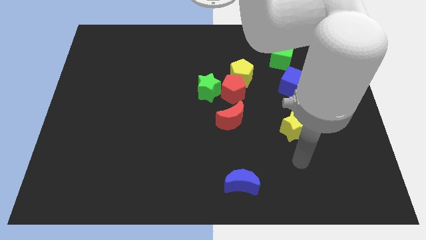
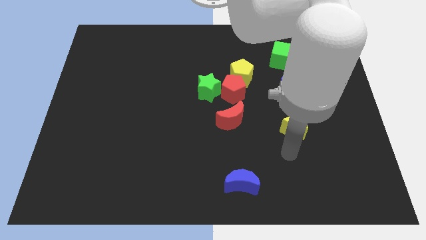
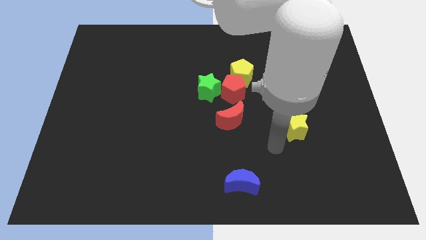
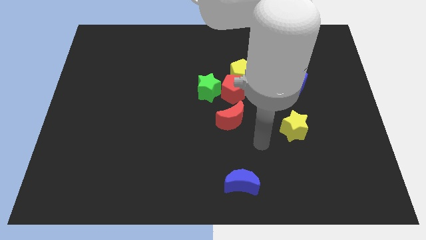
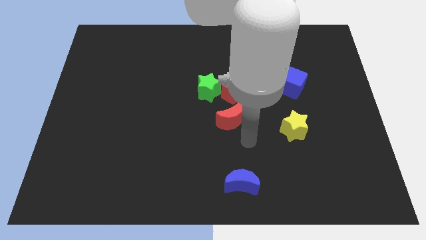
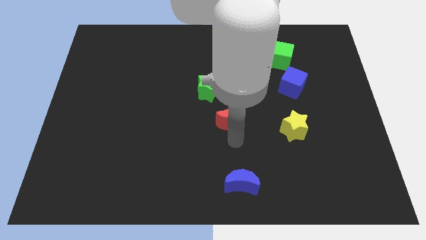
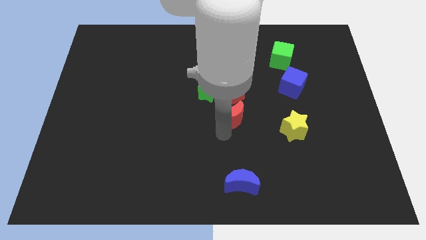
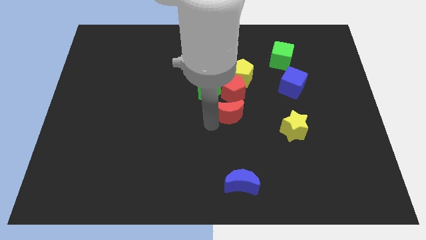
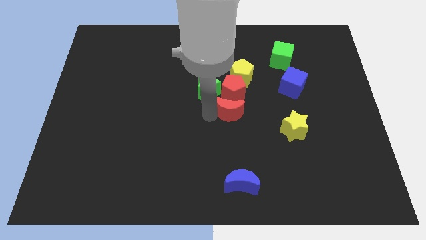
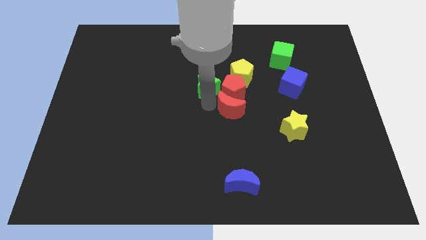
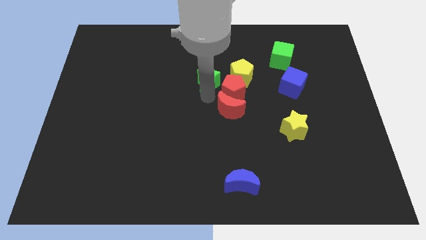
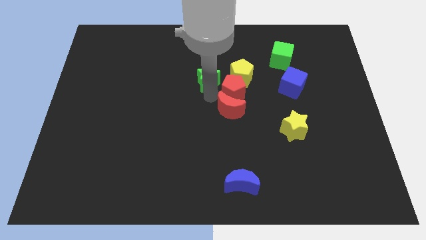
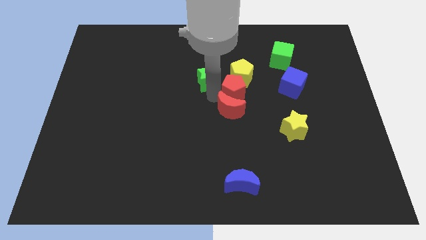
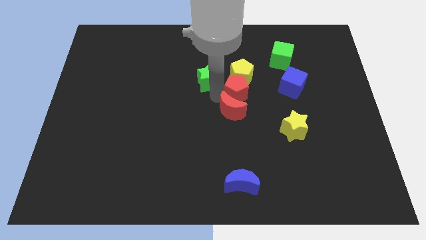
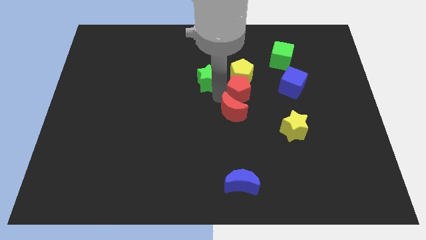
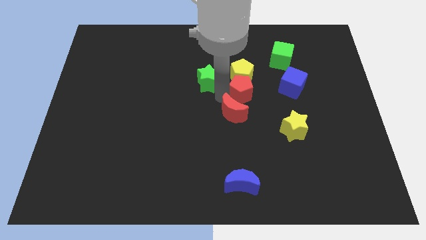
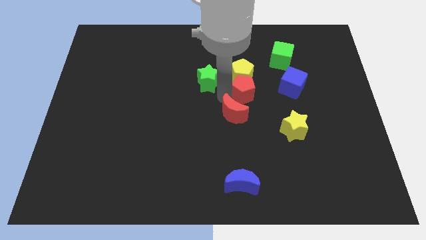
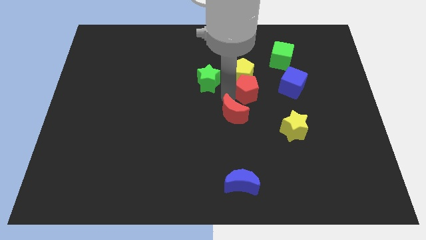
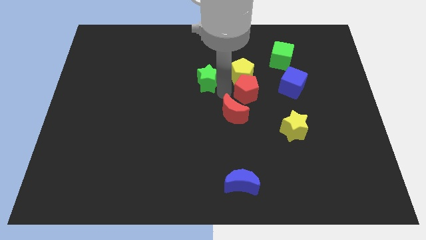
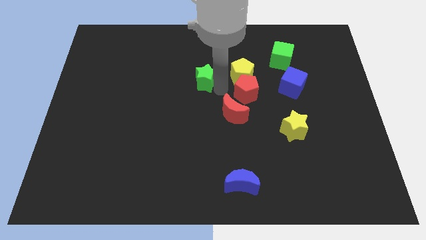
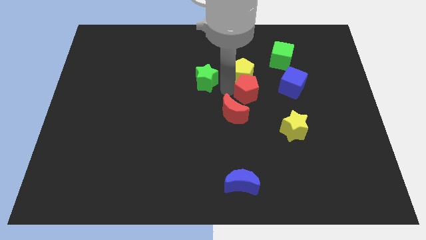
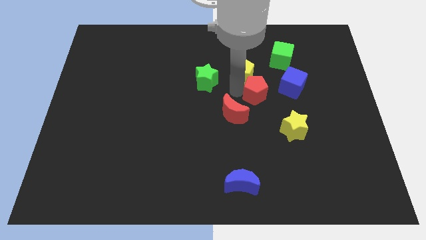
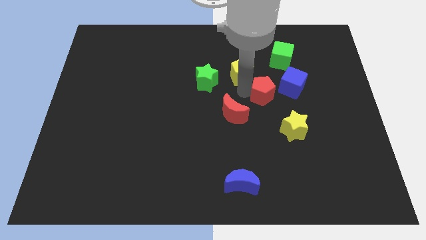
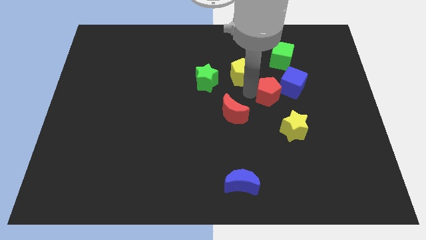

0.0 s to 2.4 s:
move the red pentagon away from the yellow pentagon, green star, and red moon

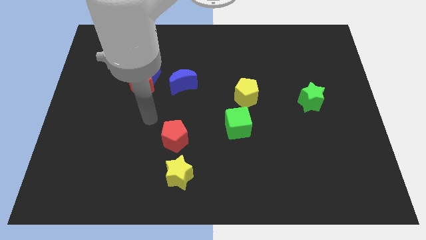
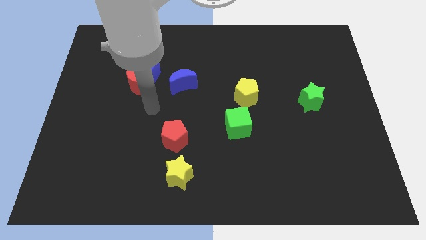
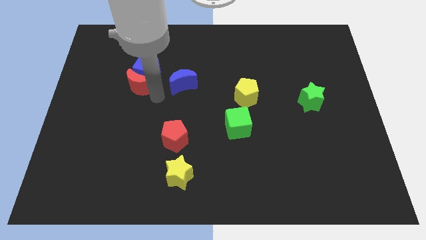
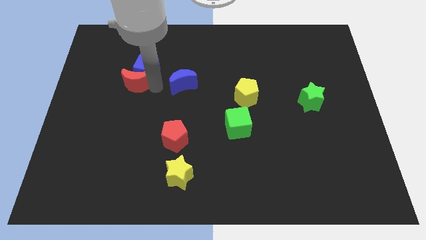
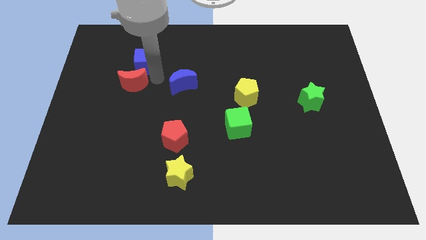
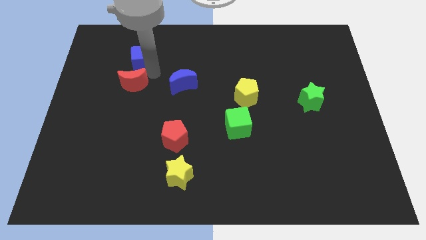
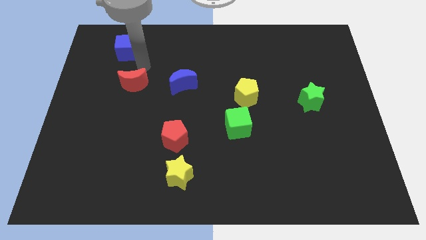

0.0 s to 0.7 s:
separate the red moon from the blue cube

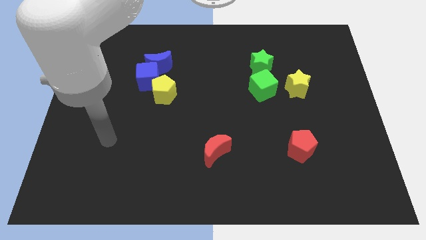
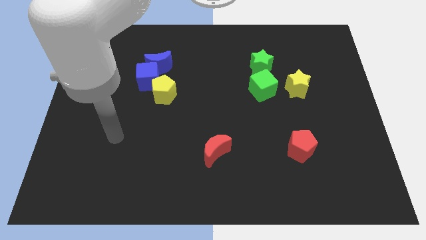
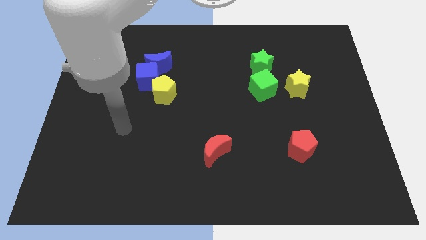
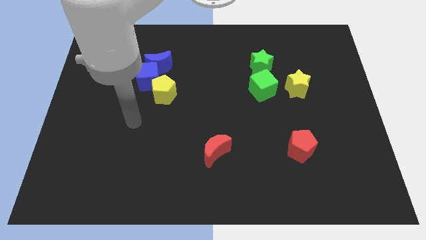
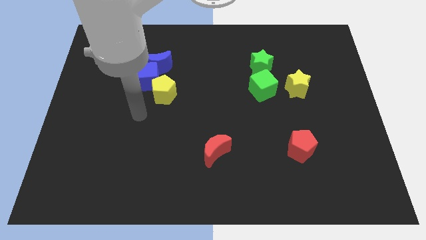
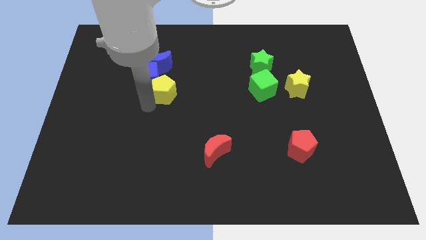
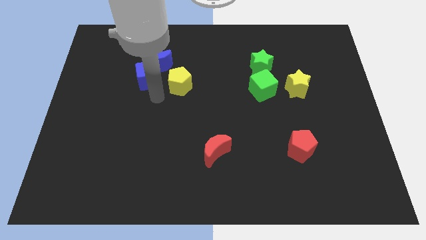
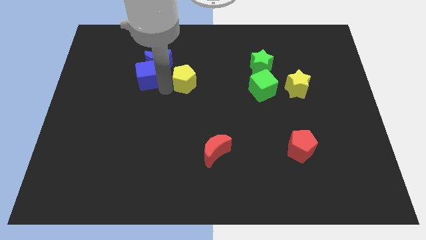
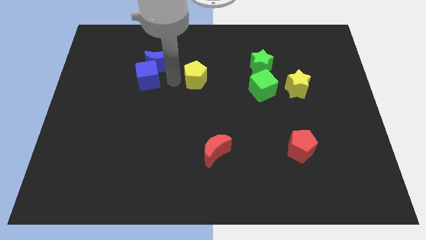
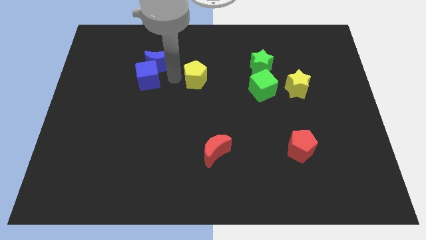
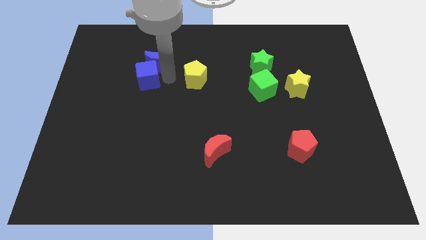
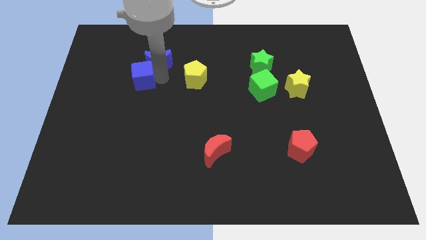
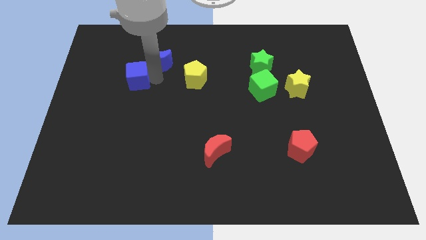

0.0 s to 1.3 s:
move the blue cube away from the blue moon and yellow pentagon

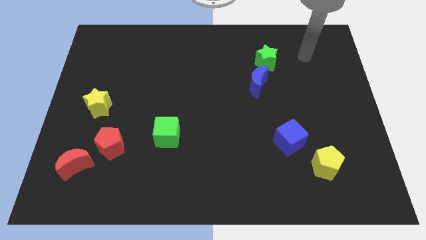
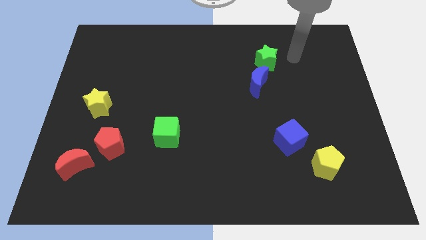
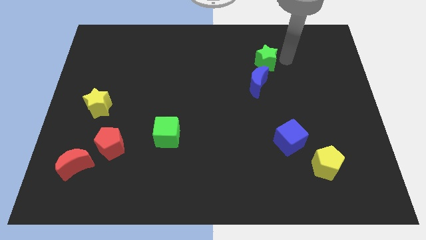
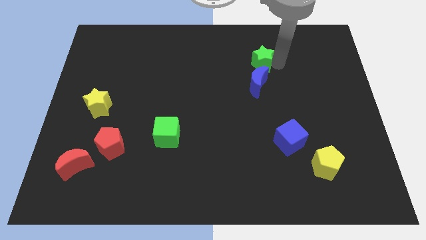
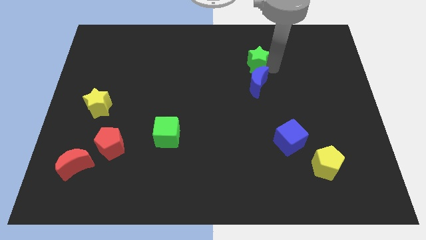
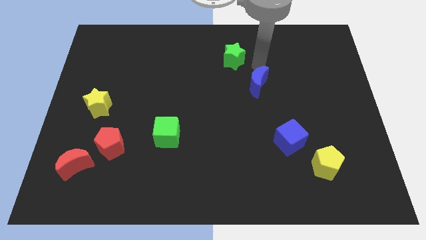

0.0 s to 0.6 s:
move the blue moon away from the green star

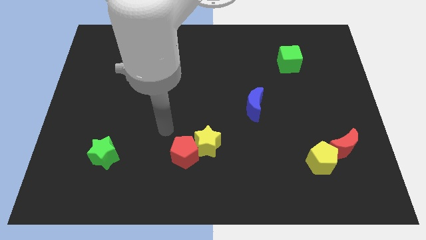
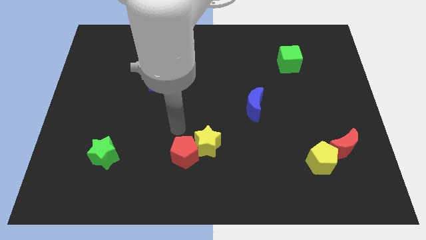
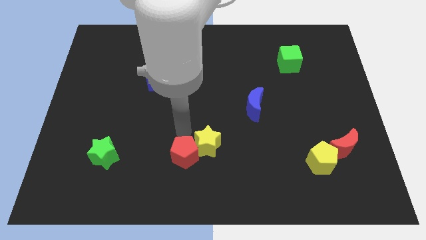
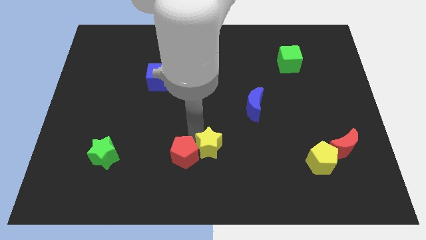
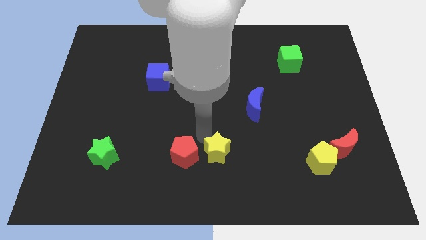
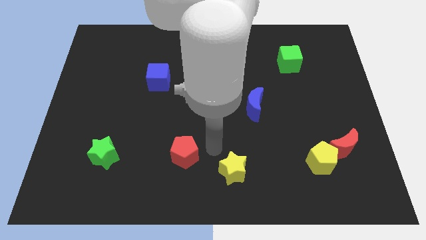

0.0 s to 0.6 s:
separate the red pentagon from the yellow star

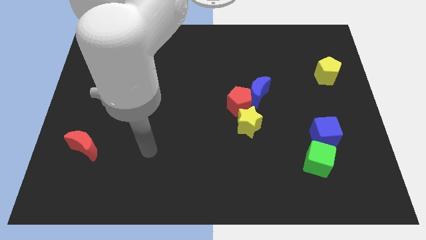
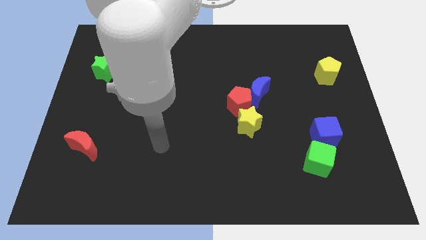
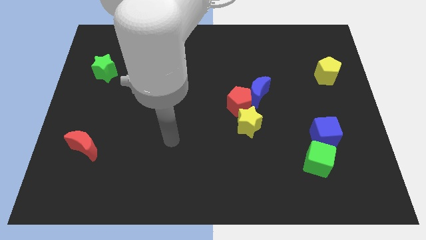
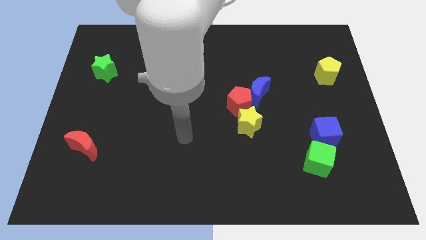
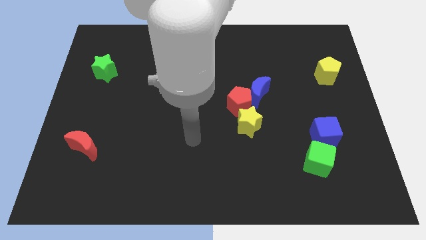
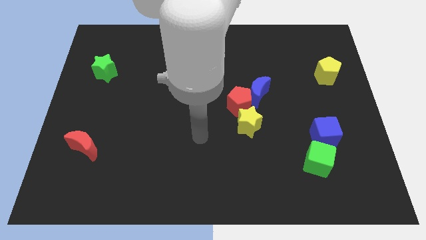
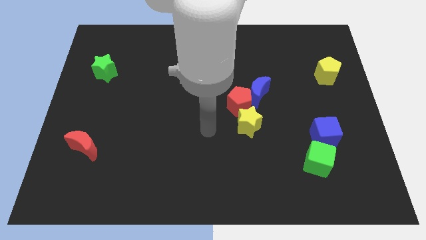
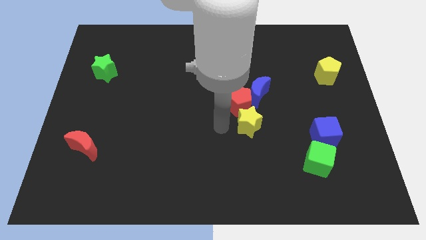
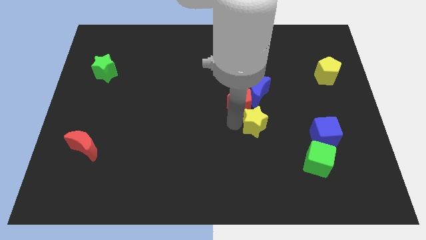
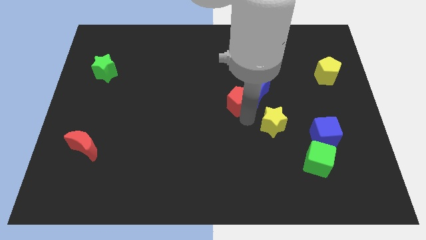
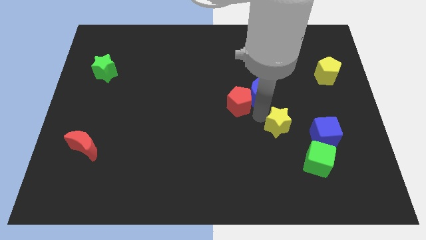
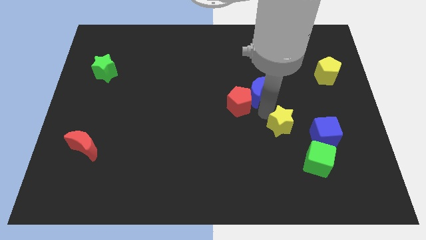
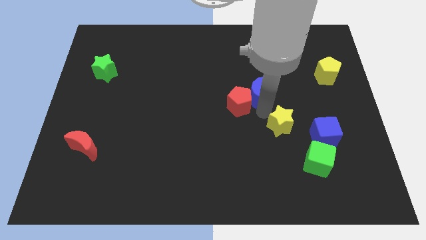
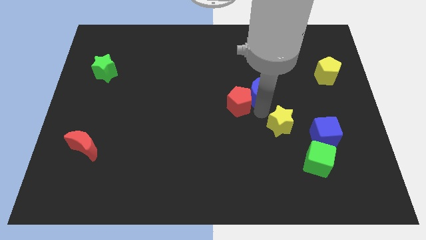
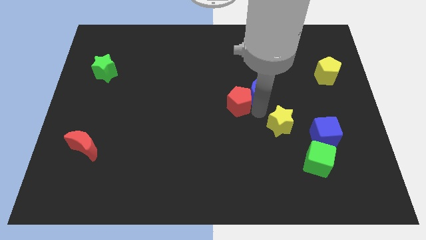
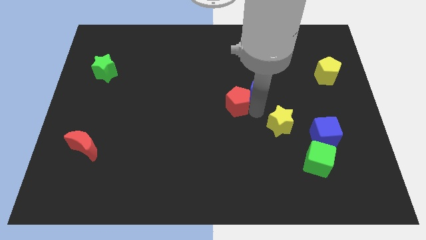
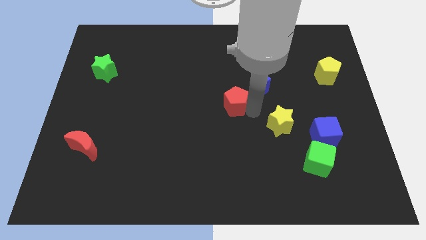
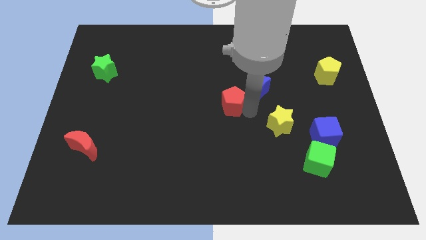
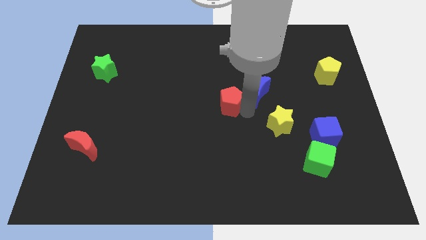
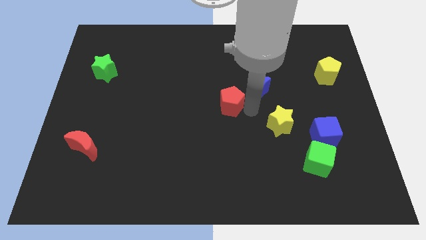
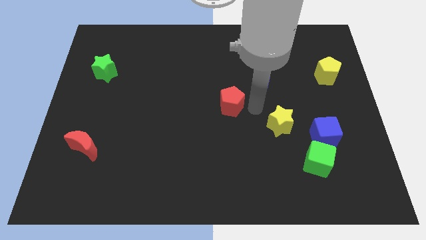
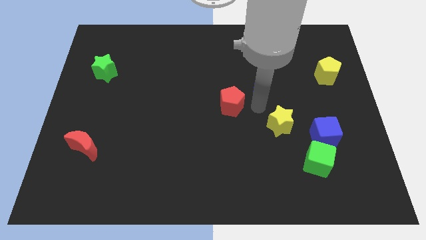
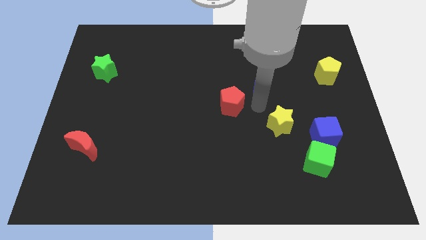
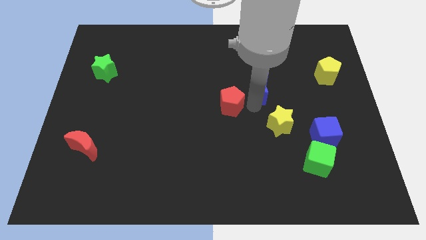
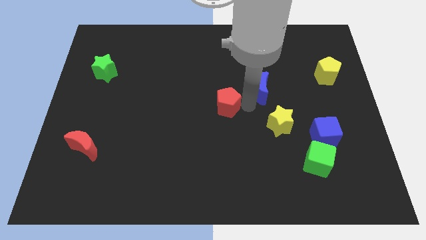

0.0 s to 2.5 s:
pull the red pentagon apart from the blue moon and yellow star

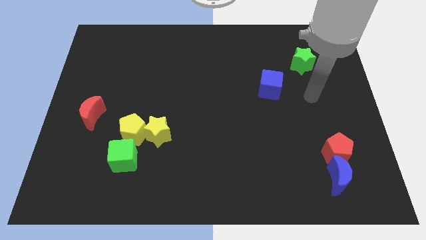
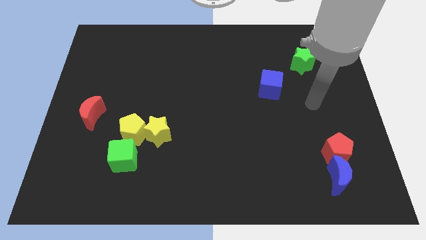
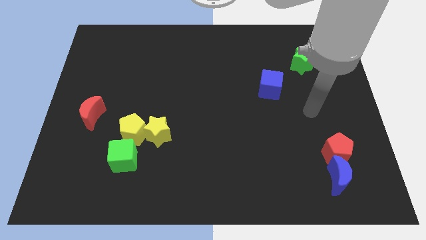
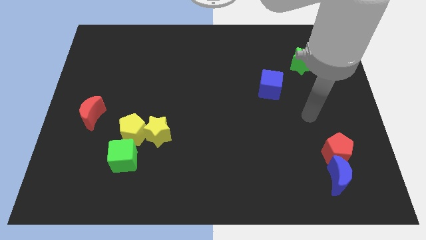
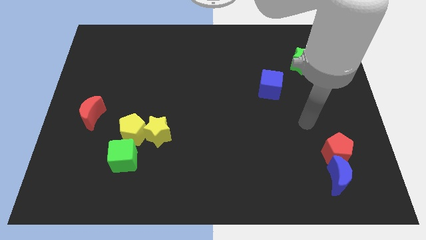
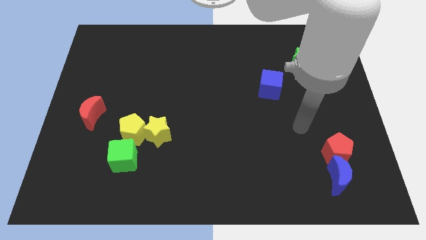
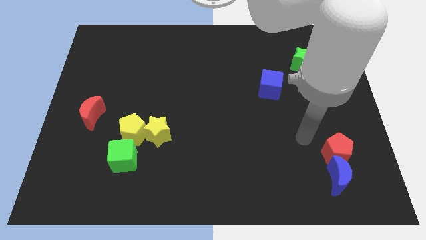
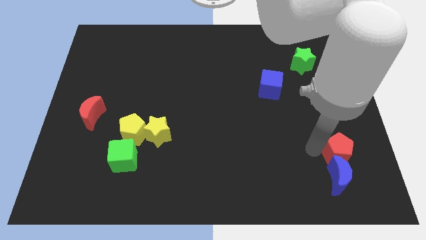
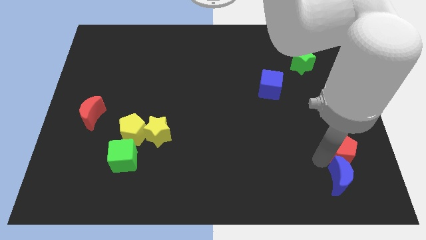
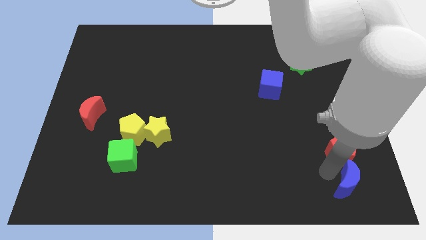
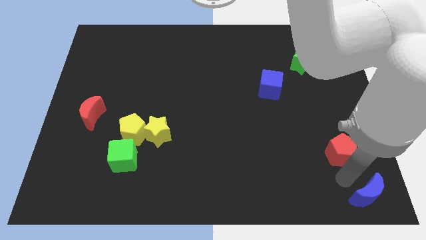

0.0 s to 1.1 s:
pull the red pentagon apart from the blue moon

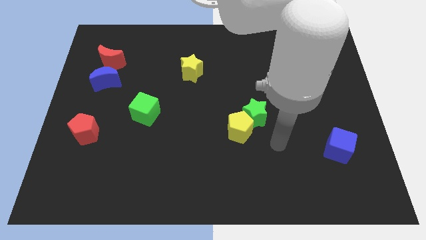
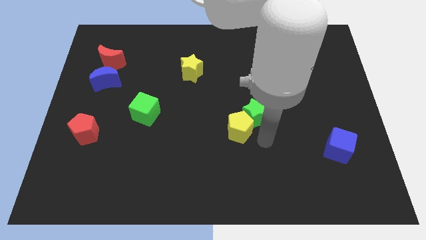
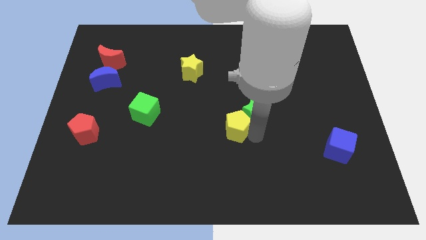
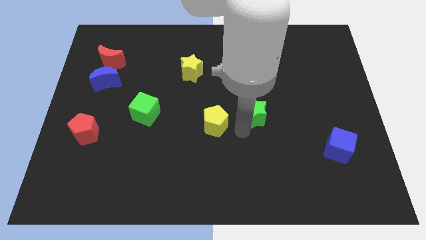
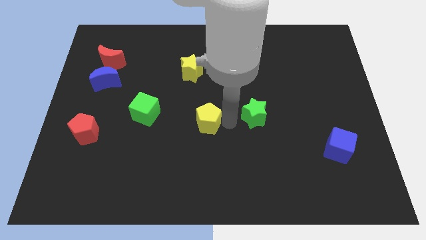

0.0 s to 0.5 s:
pull the green star apart from the yellow pentagon
